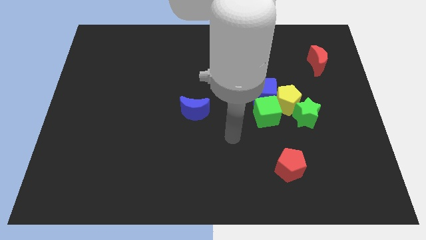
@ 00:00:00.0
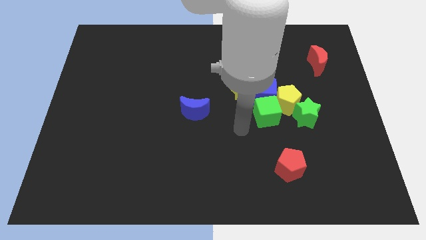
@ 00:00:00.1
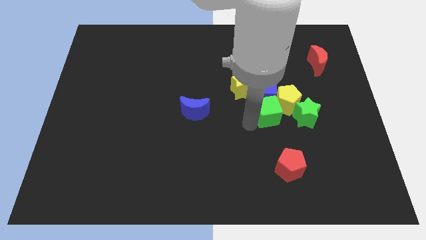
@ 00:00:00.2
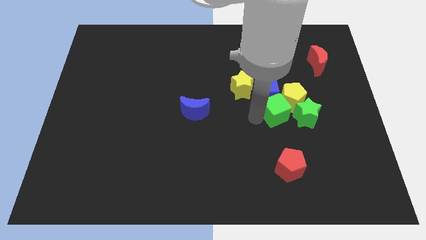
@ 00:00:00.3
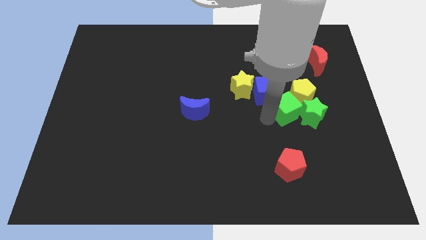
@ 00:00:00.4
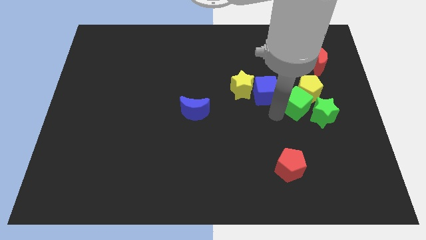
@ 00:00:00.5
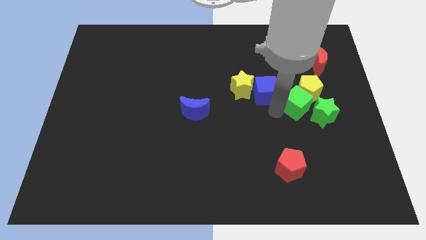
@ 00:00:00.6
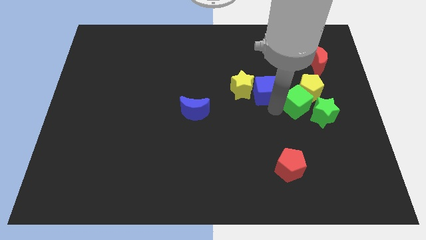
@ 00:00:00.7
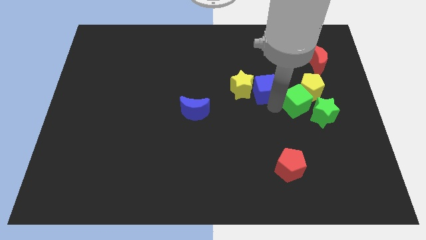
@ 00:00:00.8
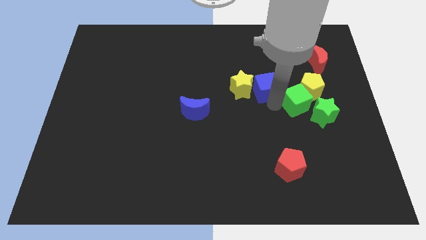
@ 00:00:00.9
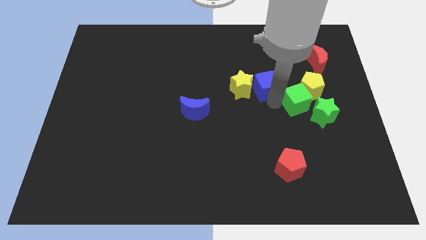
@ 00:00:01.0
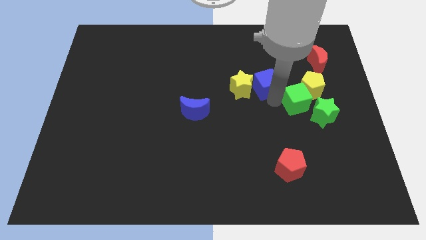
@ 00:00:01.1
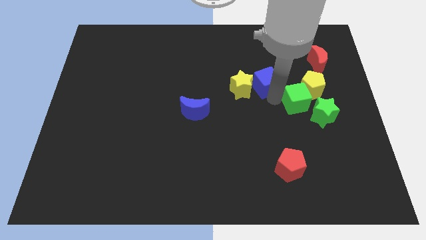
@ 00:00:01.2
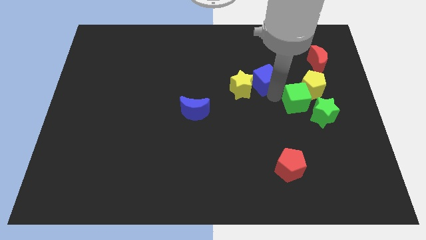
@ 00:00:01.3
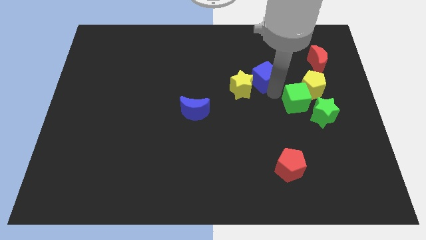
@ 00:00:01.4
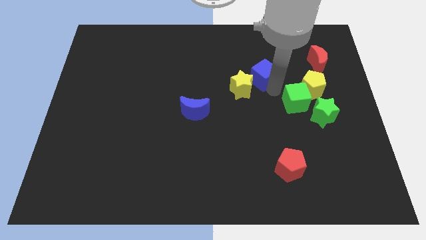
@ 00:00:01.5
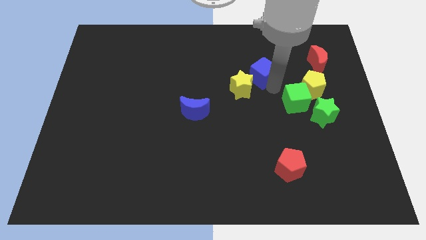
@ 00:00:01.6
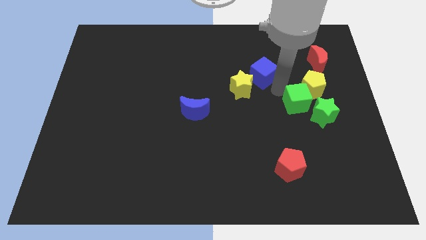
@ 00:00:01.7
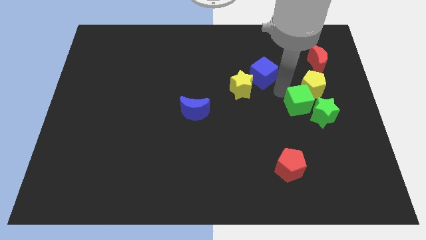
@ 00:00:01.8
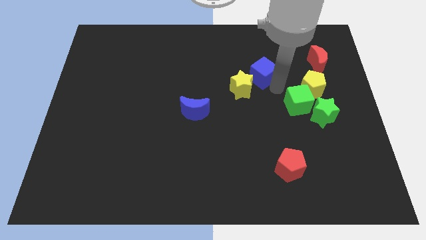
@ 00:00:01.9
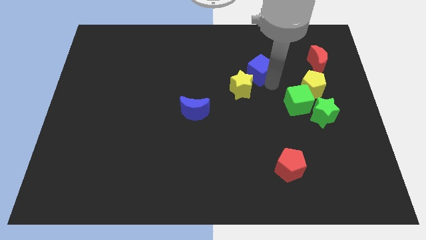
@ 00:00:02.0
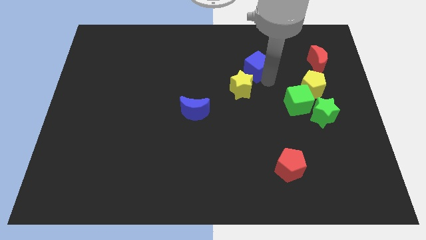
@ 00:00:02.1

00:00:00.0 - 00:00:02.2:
separate the blue cube from the yellow pentagon, yellow star, and green cube

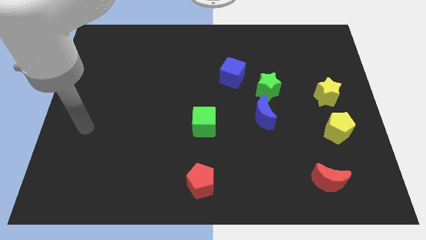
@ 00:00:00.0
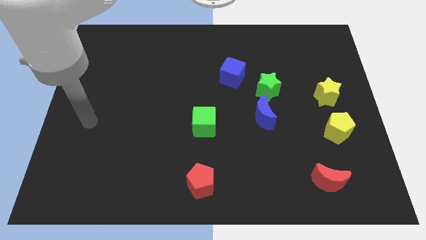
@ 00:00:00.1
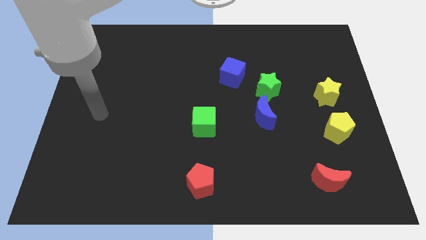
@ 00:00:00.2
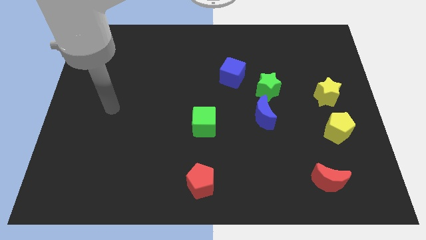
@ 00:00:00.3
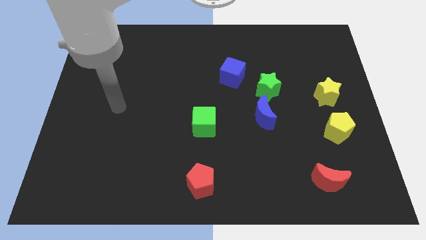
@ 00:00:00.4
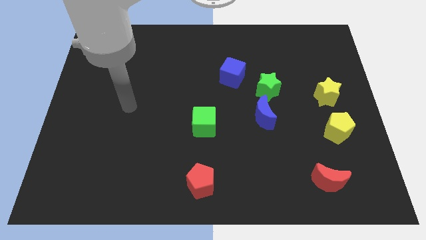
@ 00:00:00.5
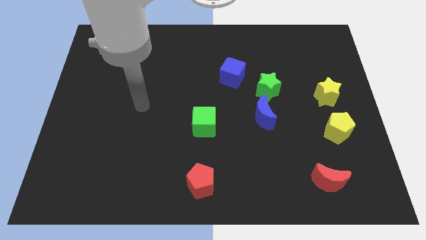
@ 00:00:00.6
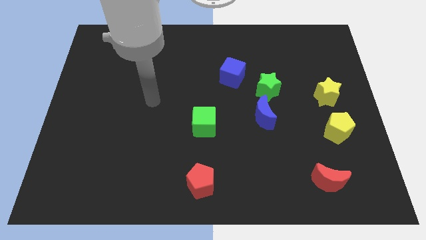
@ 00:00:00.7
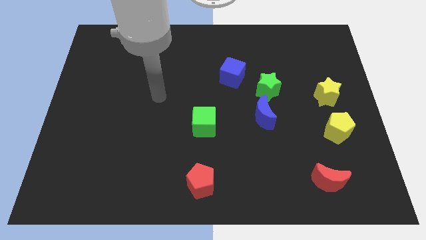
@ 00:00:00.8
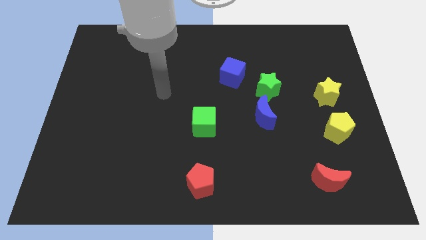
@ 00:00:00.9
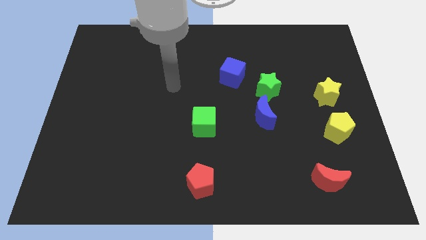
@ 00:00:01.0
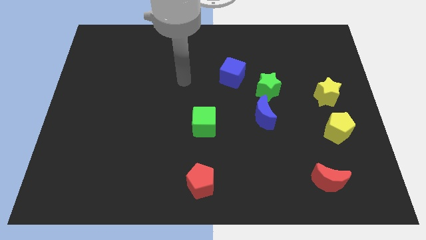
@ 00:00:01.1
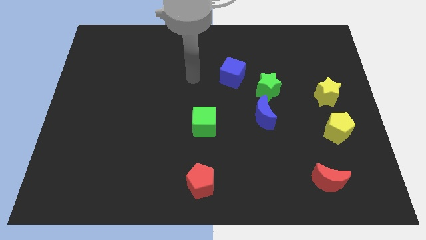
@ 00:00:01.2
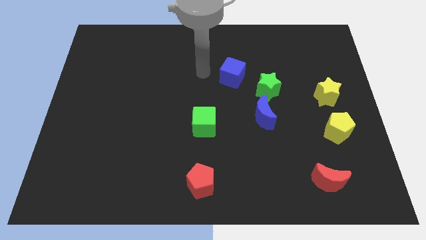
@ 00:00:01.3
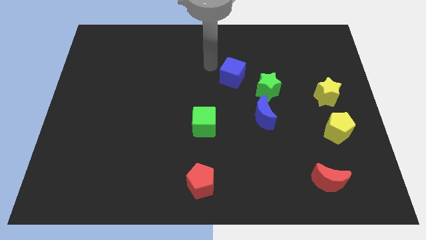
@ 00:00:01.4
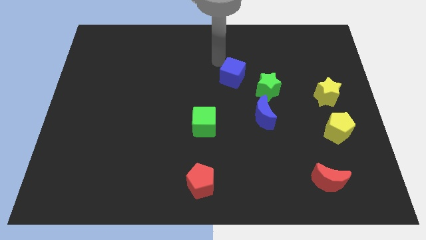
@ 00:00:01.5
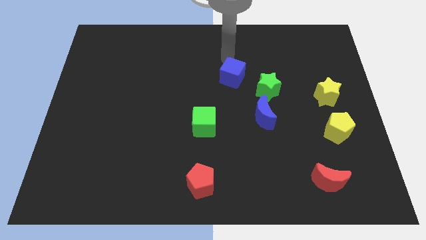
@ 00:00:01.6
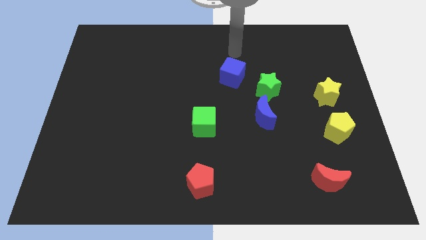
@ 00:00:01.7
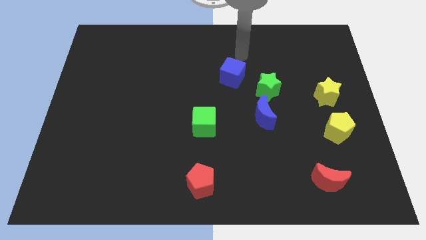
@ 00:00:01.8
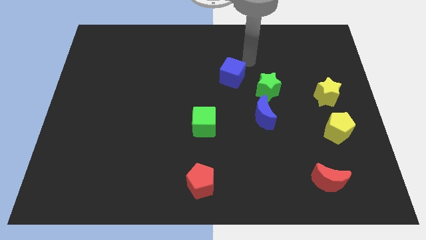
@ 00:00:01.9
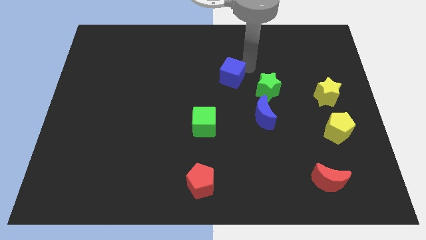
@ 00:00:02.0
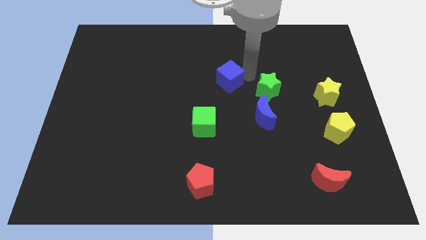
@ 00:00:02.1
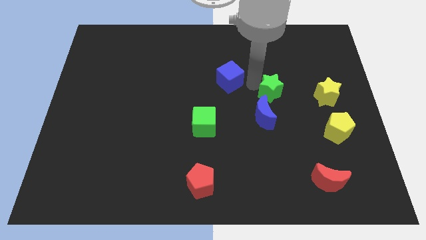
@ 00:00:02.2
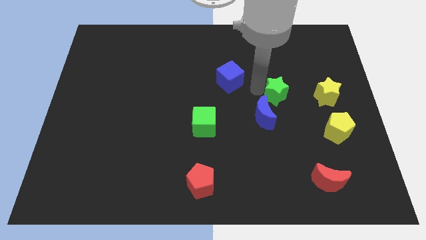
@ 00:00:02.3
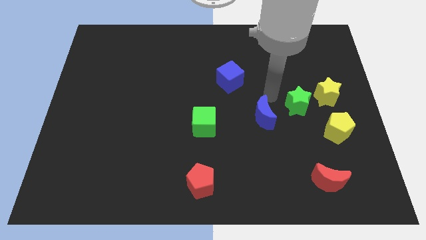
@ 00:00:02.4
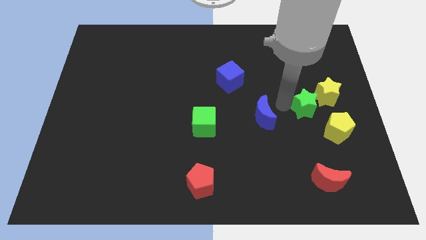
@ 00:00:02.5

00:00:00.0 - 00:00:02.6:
separate the blue moon from the green star

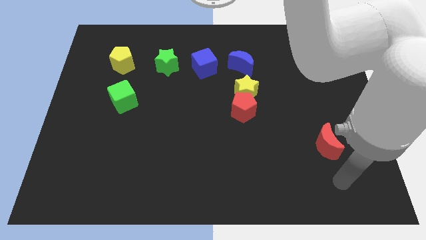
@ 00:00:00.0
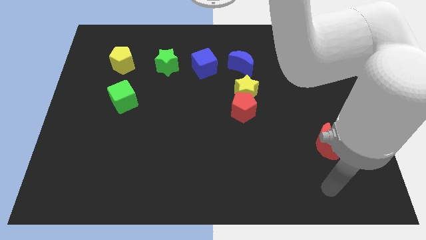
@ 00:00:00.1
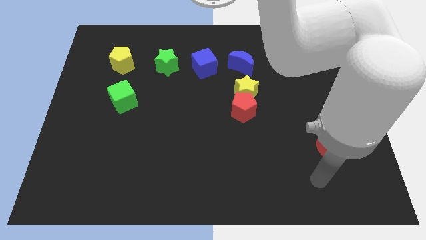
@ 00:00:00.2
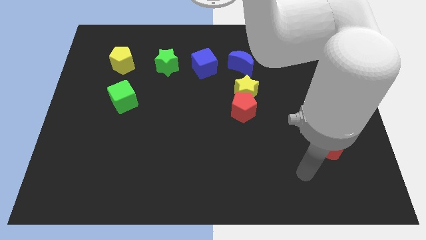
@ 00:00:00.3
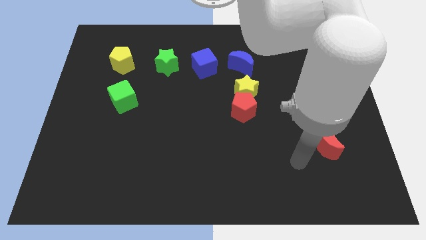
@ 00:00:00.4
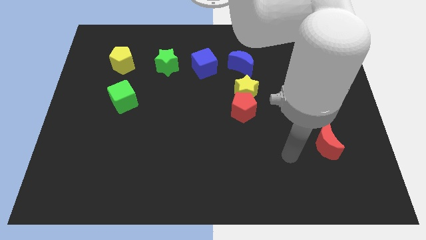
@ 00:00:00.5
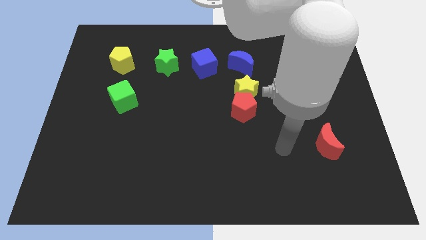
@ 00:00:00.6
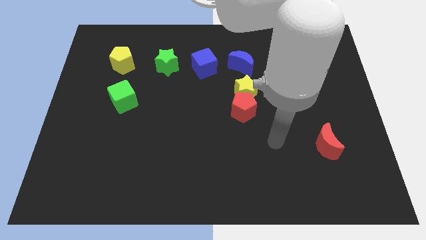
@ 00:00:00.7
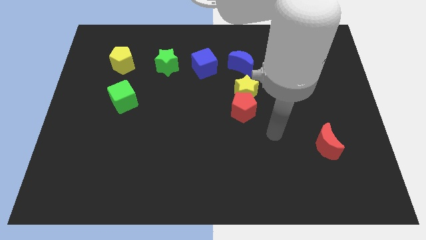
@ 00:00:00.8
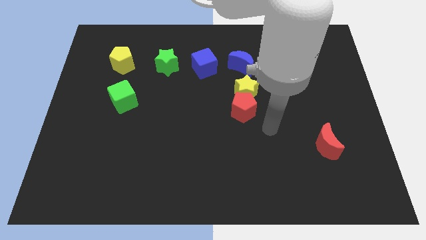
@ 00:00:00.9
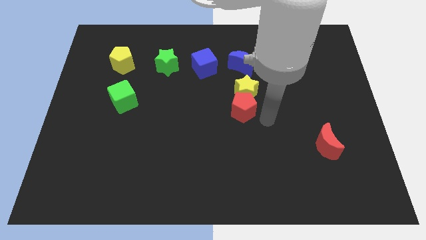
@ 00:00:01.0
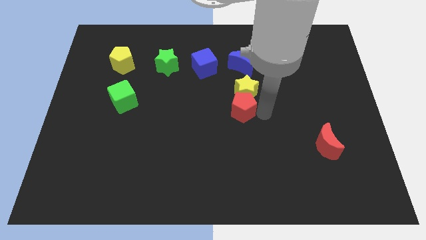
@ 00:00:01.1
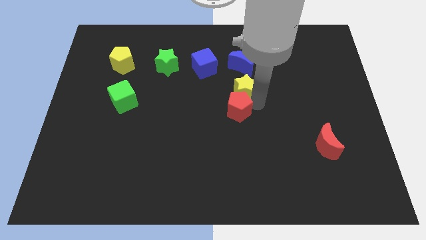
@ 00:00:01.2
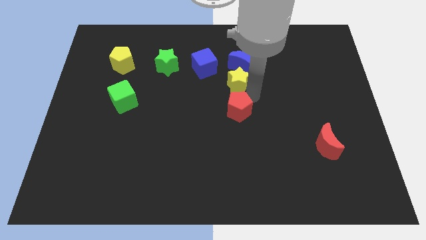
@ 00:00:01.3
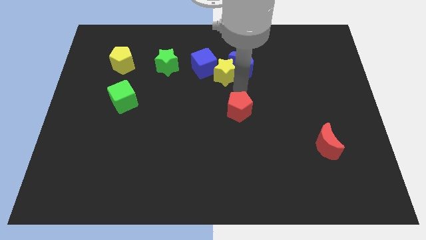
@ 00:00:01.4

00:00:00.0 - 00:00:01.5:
pull the red pentagon apart from the yellow star

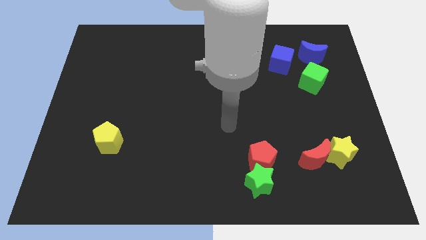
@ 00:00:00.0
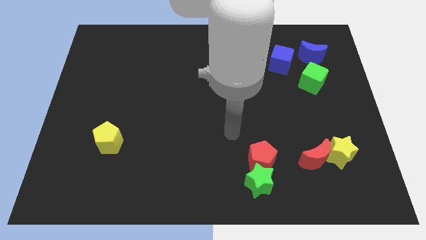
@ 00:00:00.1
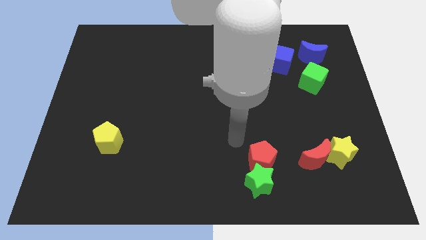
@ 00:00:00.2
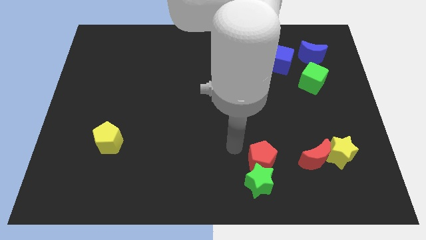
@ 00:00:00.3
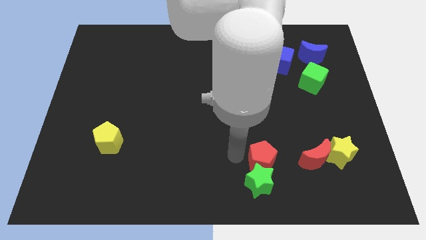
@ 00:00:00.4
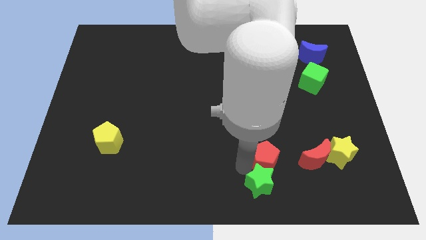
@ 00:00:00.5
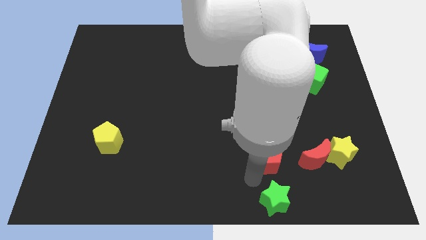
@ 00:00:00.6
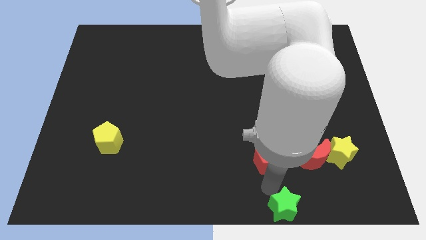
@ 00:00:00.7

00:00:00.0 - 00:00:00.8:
move the red pentagon away from the green star

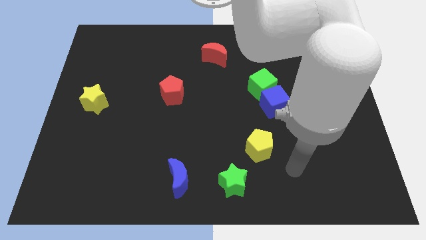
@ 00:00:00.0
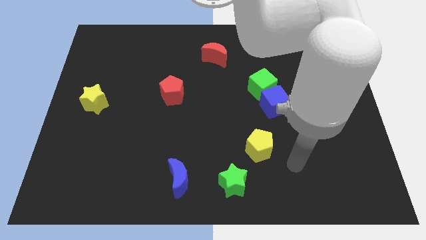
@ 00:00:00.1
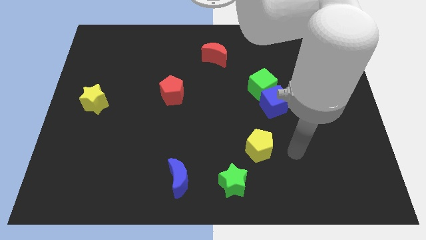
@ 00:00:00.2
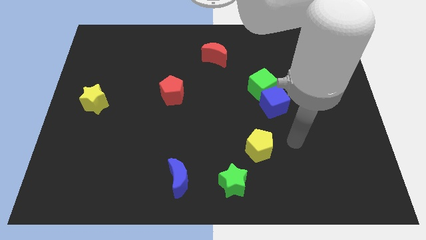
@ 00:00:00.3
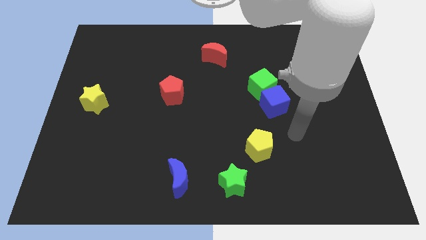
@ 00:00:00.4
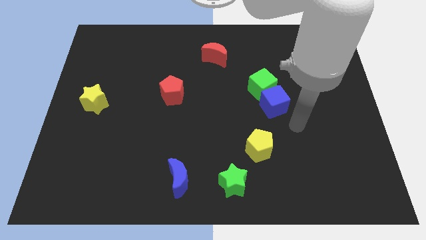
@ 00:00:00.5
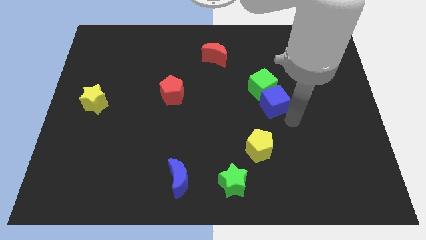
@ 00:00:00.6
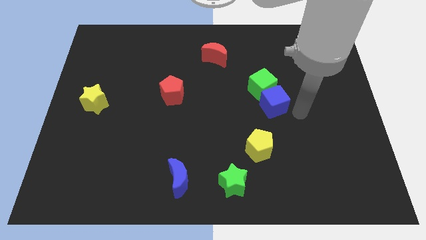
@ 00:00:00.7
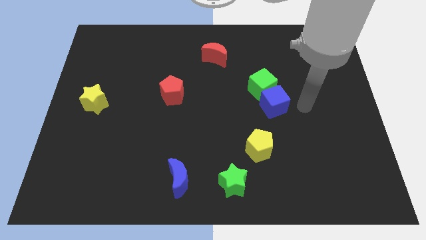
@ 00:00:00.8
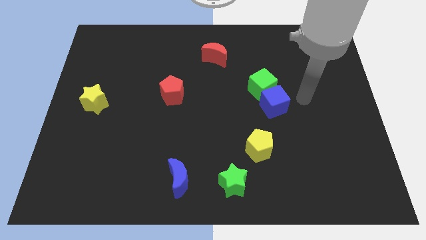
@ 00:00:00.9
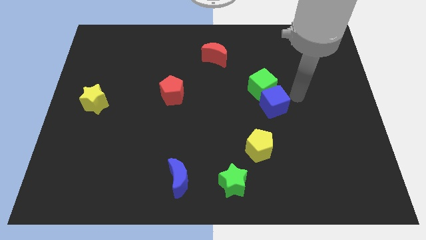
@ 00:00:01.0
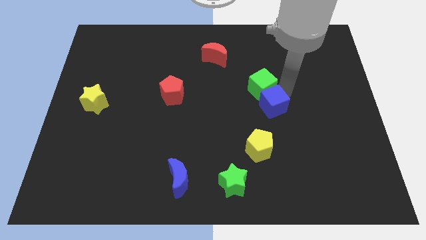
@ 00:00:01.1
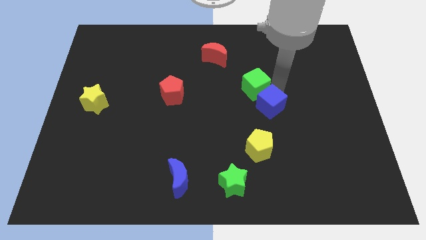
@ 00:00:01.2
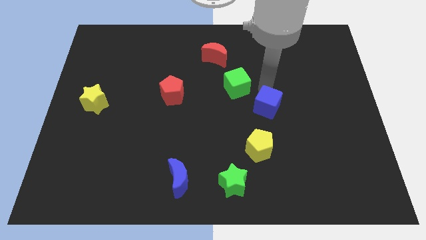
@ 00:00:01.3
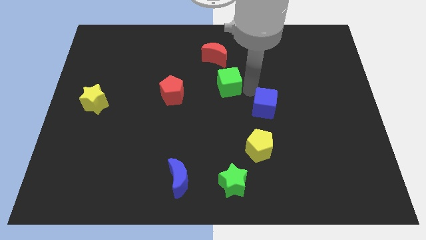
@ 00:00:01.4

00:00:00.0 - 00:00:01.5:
pull the blue cube apart from the green cube

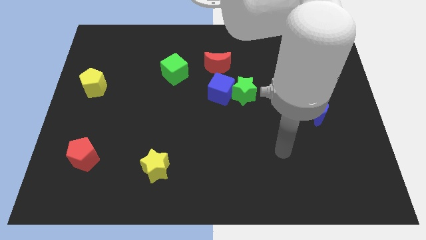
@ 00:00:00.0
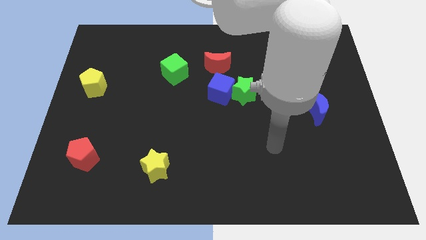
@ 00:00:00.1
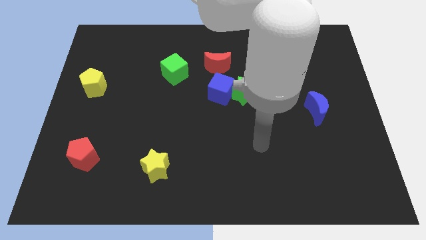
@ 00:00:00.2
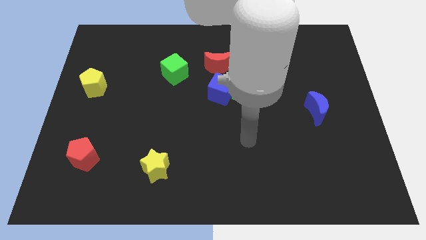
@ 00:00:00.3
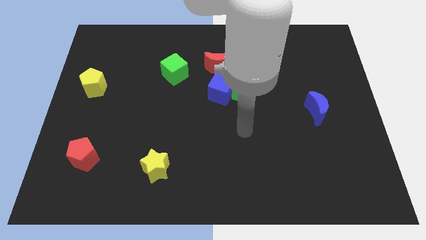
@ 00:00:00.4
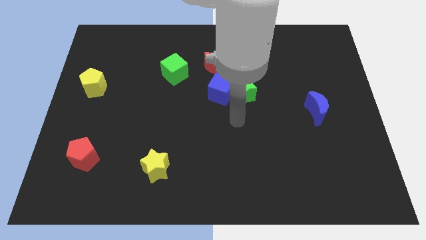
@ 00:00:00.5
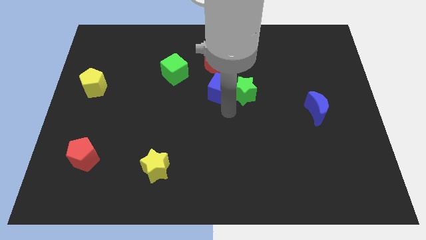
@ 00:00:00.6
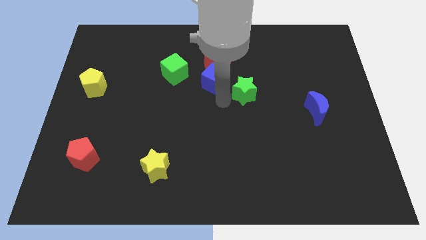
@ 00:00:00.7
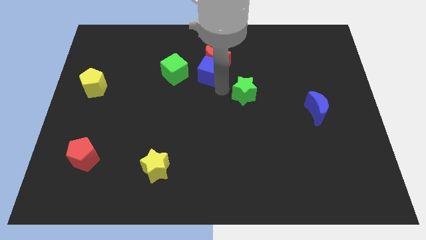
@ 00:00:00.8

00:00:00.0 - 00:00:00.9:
move the green star away from the blue cube
